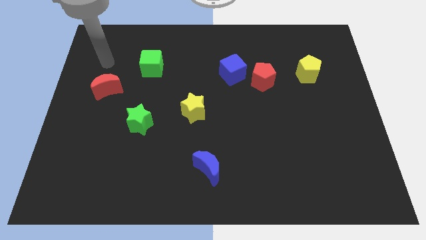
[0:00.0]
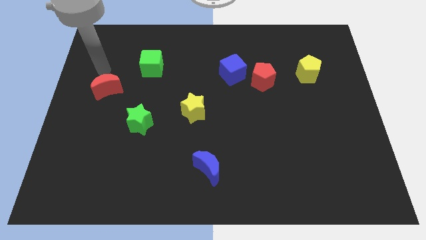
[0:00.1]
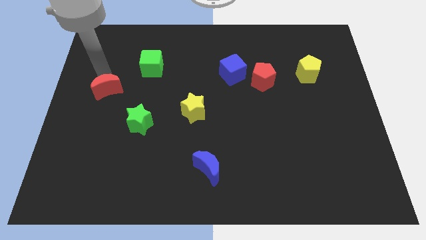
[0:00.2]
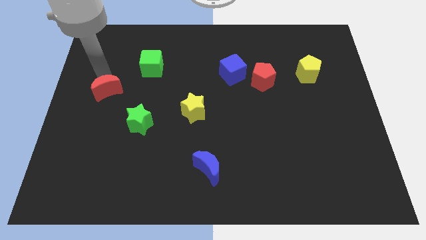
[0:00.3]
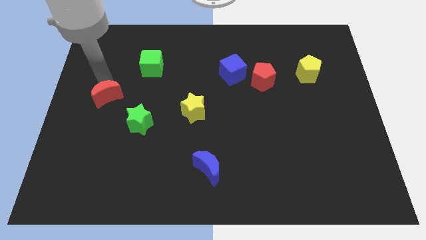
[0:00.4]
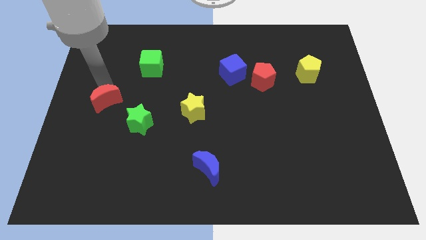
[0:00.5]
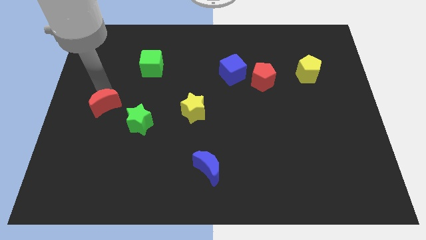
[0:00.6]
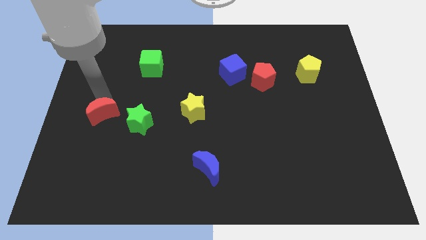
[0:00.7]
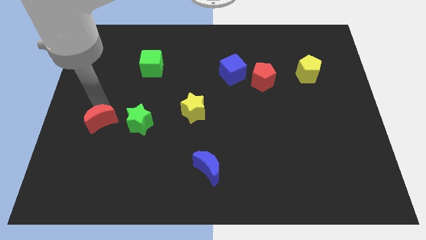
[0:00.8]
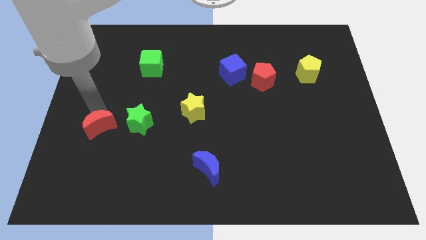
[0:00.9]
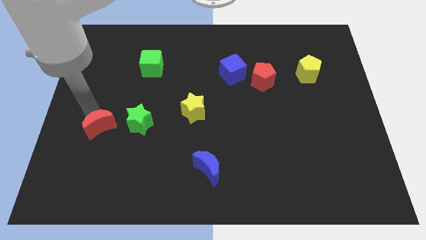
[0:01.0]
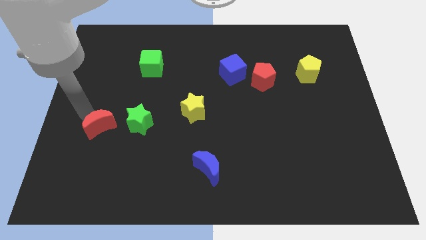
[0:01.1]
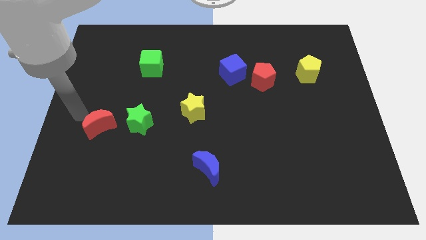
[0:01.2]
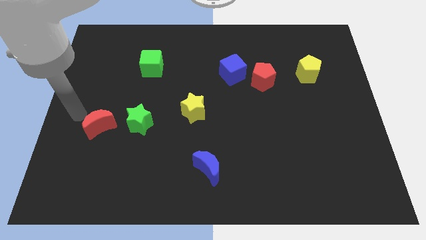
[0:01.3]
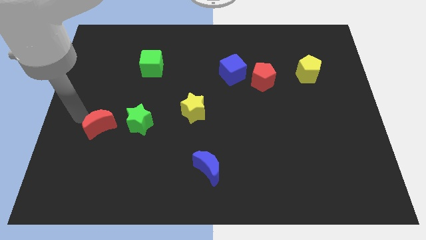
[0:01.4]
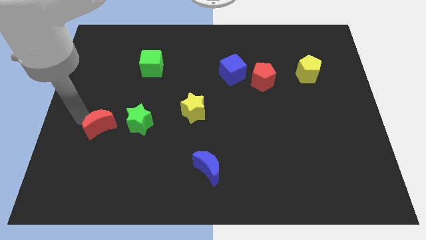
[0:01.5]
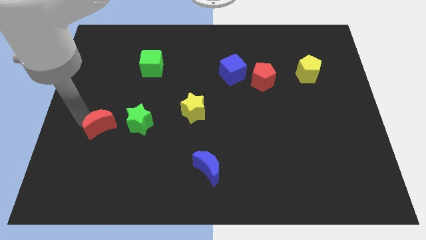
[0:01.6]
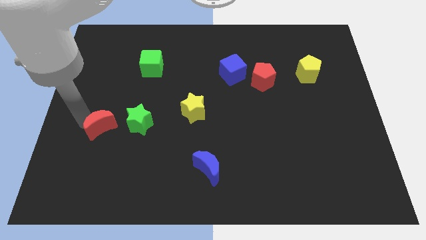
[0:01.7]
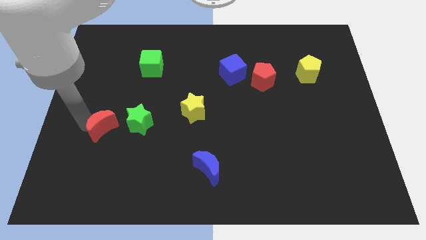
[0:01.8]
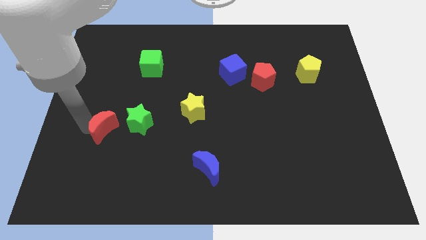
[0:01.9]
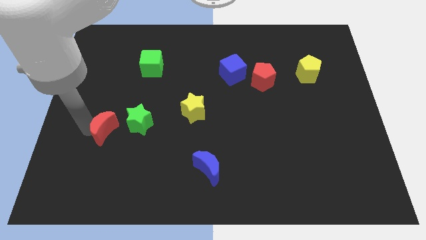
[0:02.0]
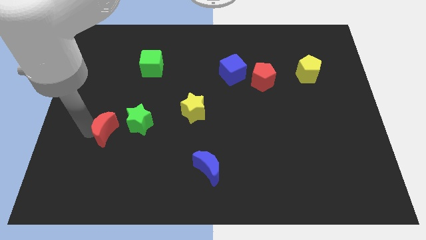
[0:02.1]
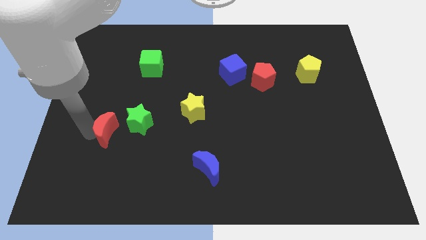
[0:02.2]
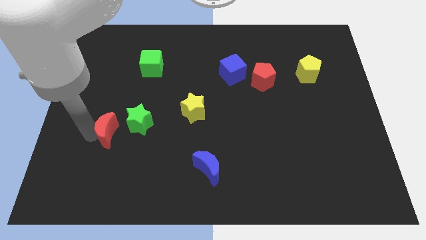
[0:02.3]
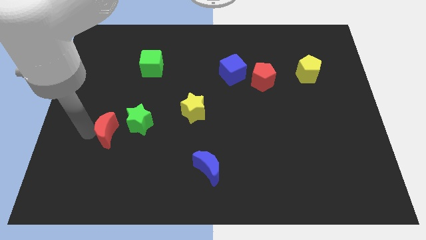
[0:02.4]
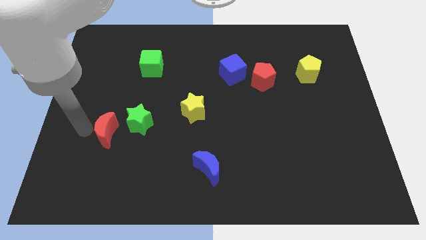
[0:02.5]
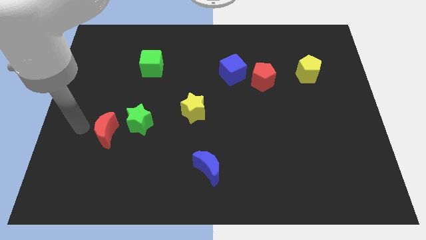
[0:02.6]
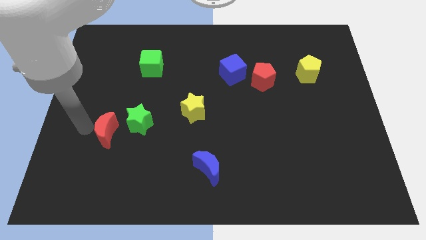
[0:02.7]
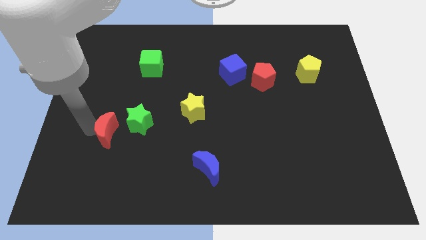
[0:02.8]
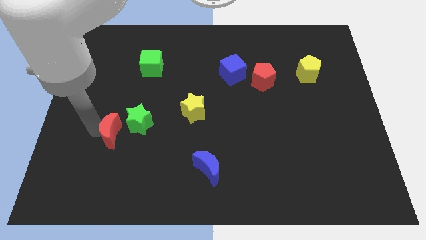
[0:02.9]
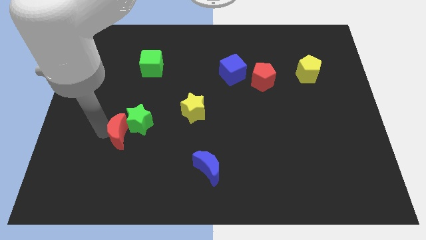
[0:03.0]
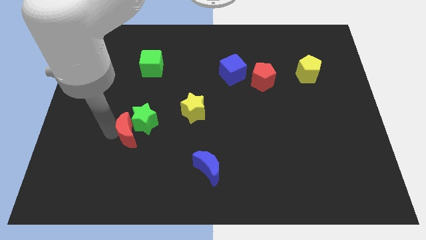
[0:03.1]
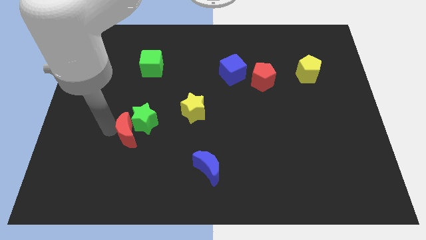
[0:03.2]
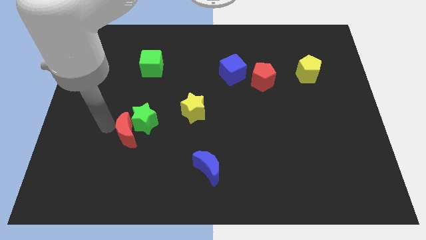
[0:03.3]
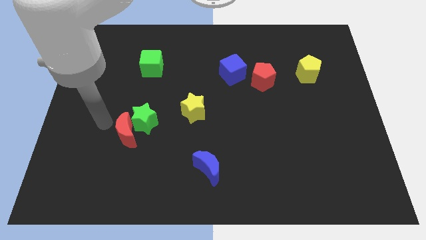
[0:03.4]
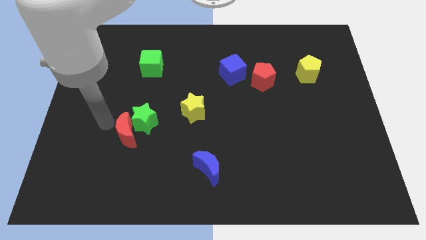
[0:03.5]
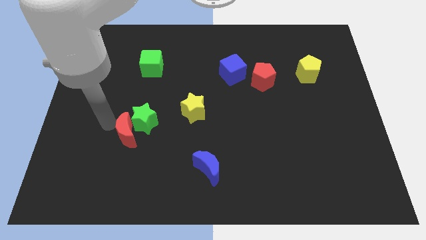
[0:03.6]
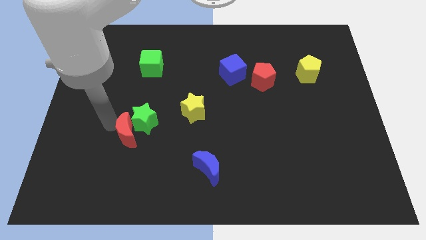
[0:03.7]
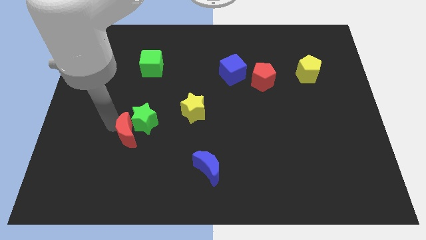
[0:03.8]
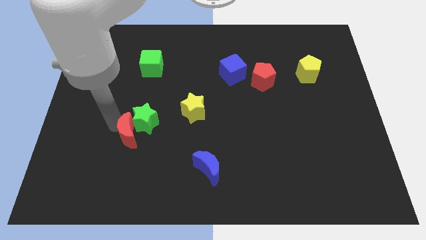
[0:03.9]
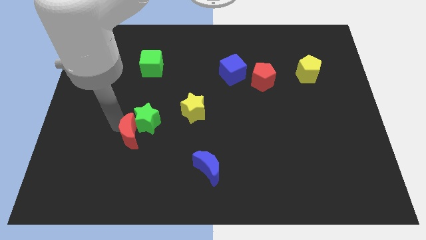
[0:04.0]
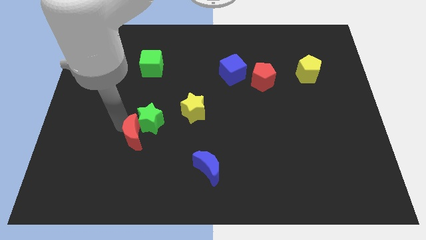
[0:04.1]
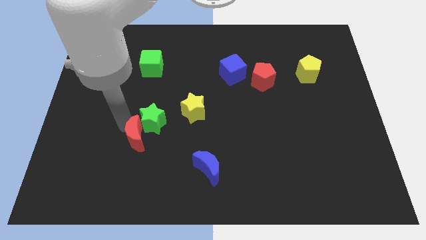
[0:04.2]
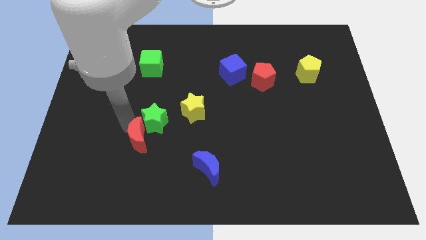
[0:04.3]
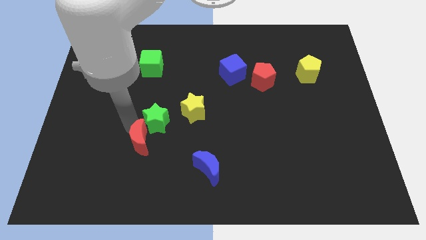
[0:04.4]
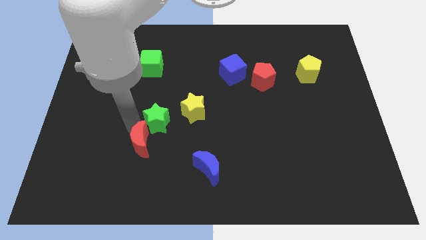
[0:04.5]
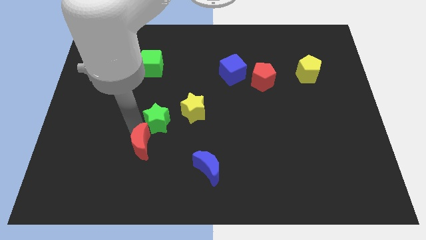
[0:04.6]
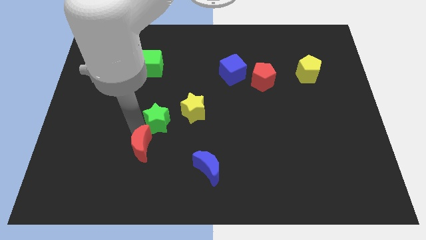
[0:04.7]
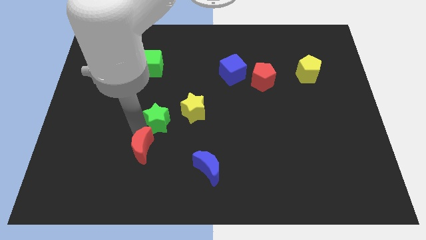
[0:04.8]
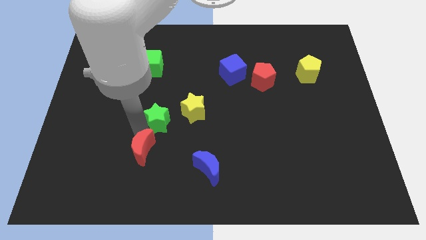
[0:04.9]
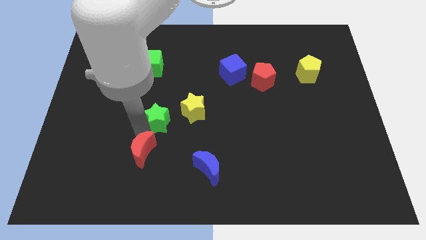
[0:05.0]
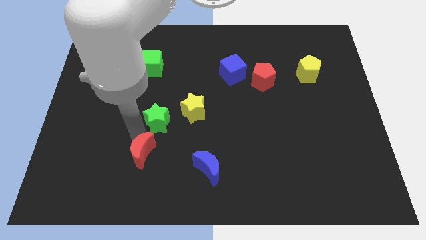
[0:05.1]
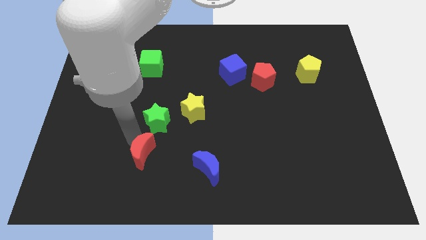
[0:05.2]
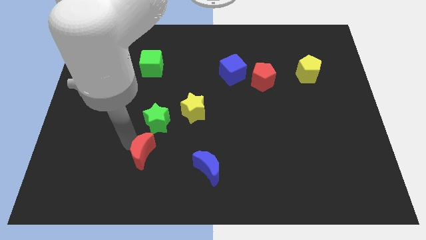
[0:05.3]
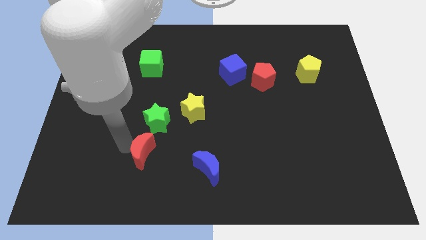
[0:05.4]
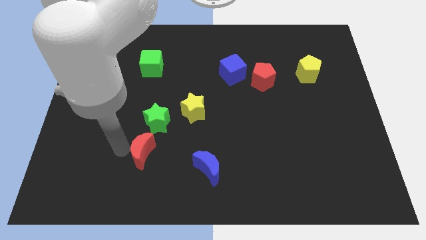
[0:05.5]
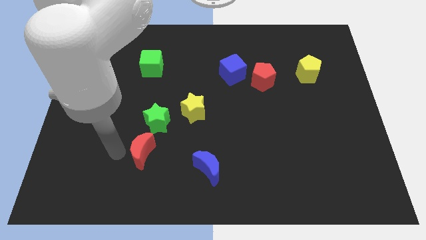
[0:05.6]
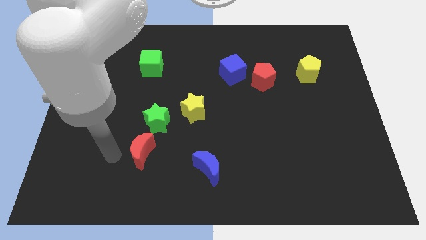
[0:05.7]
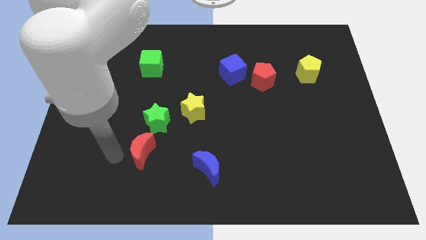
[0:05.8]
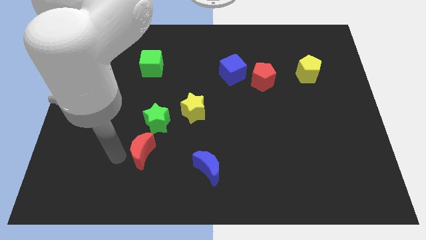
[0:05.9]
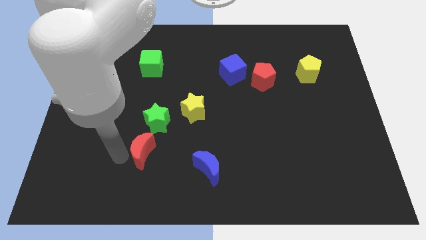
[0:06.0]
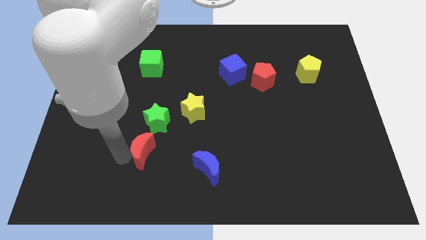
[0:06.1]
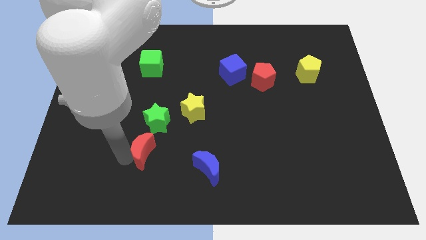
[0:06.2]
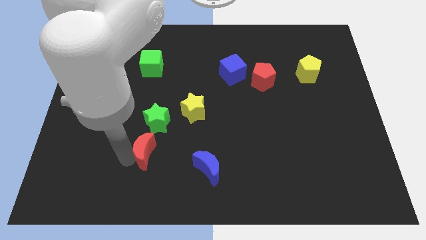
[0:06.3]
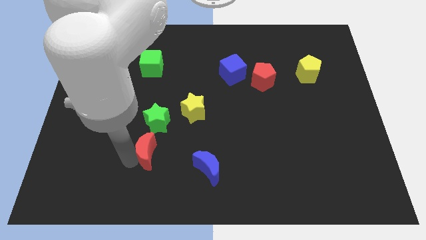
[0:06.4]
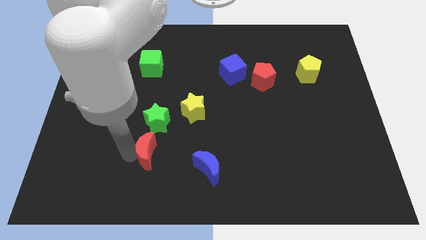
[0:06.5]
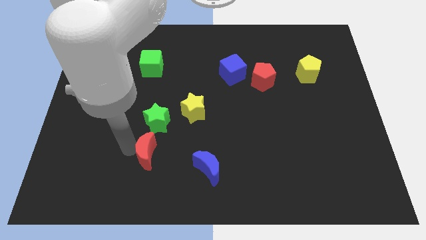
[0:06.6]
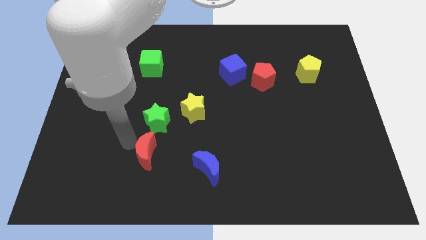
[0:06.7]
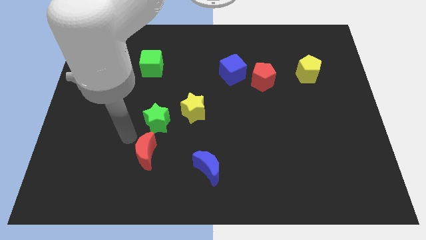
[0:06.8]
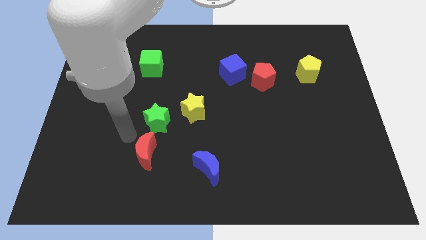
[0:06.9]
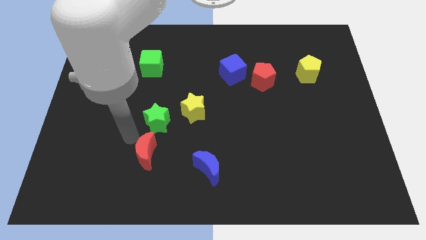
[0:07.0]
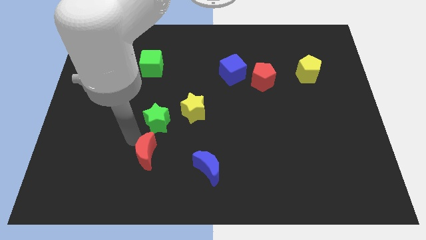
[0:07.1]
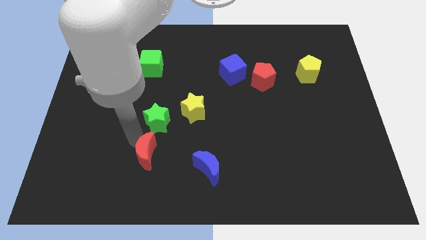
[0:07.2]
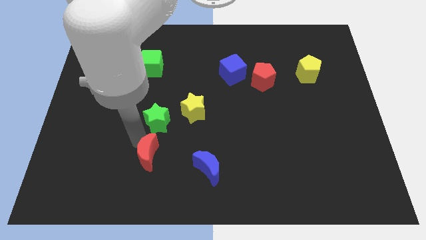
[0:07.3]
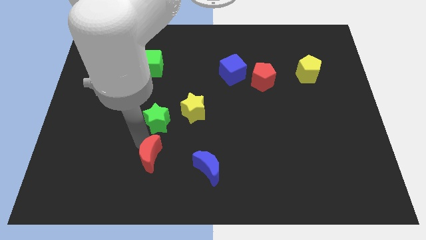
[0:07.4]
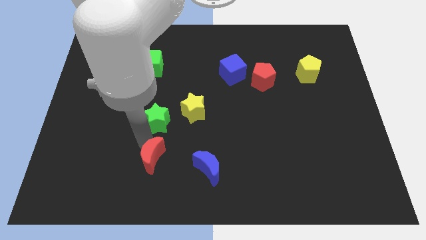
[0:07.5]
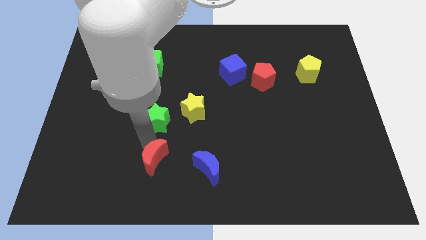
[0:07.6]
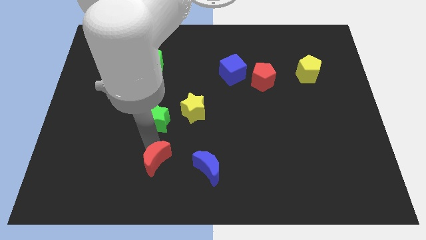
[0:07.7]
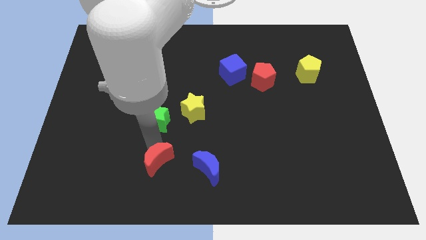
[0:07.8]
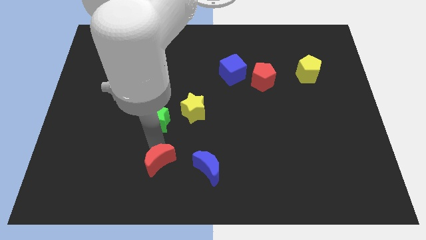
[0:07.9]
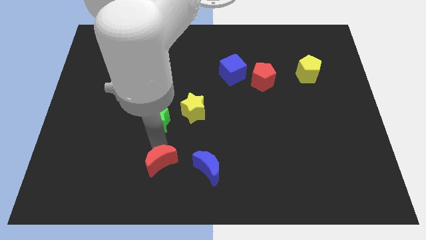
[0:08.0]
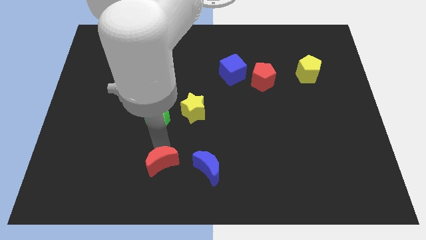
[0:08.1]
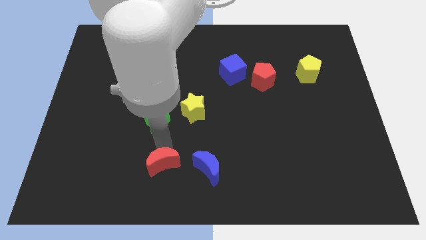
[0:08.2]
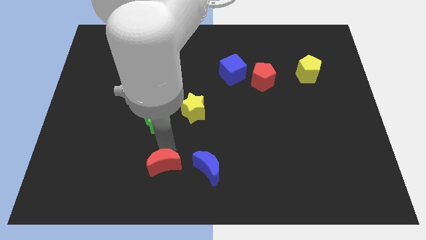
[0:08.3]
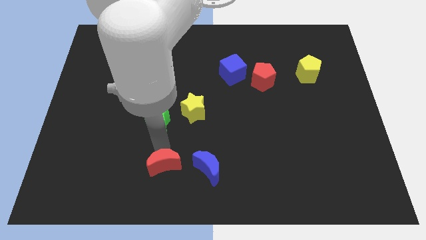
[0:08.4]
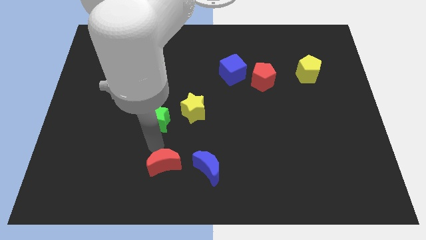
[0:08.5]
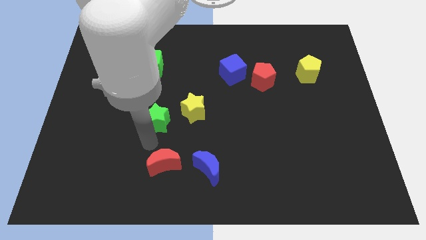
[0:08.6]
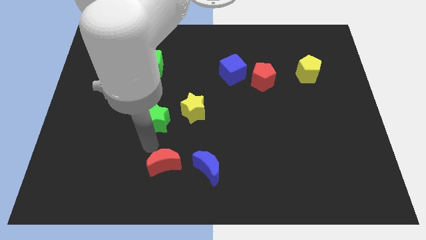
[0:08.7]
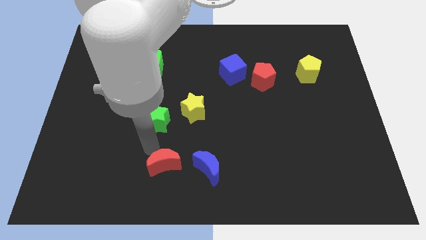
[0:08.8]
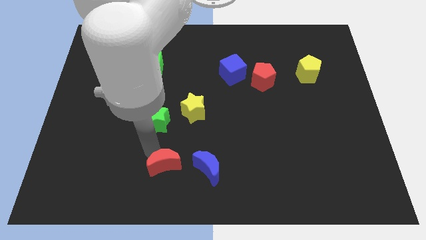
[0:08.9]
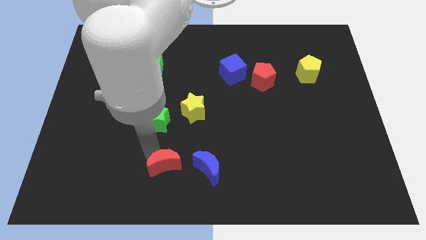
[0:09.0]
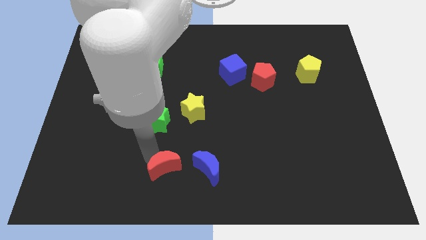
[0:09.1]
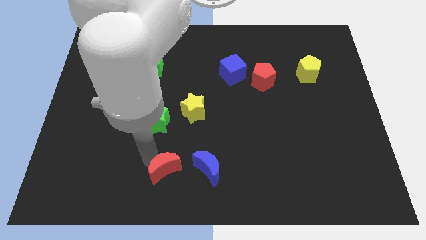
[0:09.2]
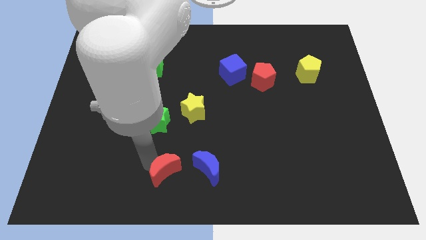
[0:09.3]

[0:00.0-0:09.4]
slide the red moon to the bottom
